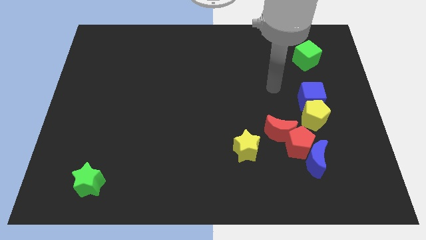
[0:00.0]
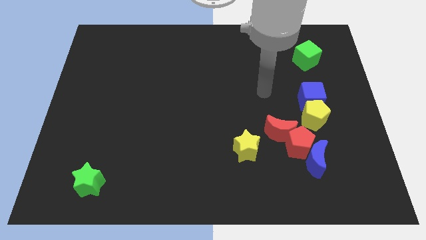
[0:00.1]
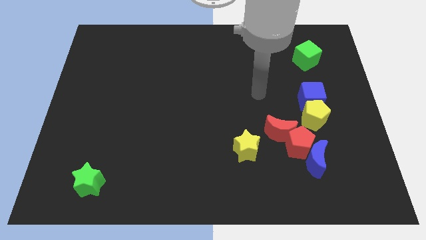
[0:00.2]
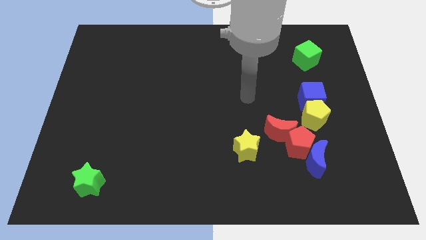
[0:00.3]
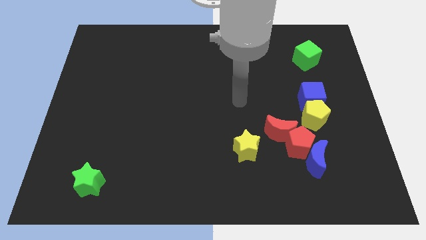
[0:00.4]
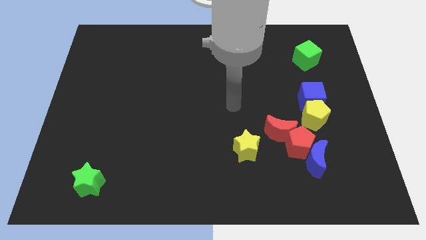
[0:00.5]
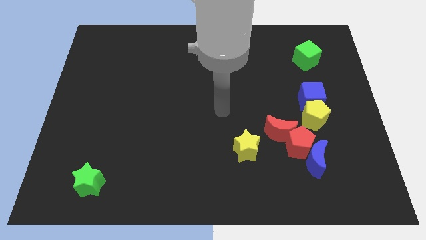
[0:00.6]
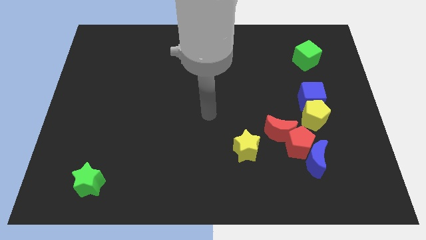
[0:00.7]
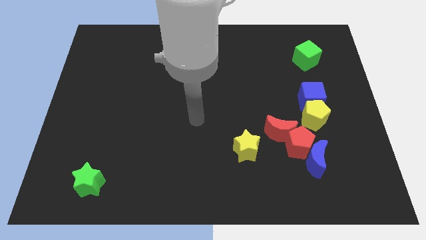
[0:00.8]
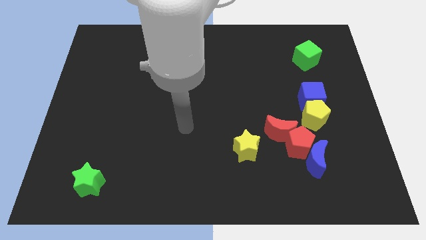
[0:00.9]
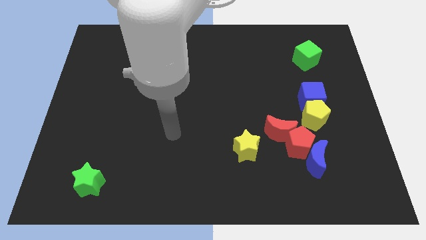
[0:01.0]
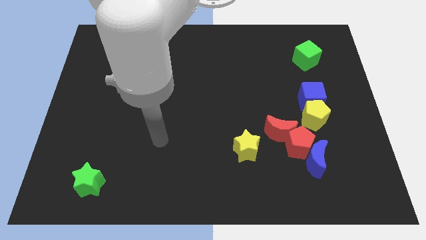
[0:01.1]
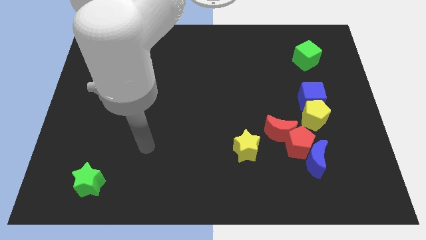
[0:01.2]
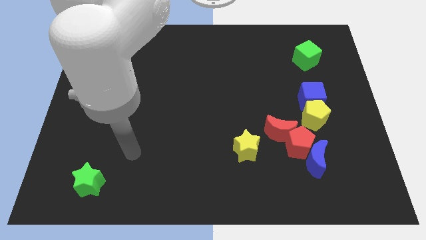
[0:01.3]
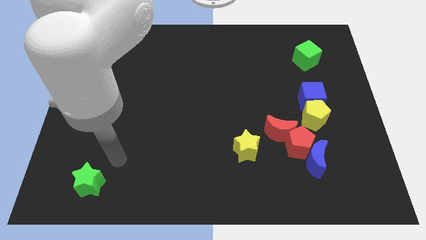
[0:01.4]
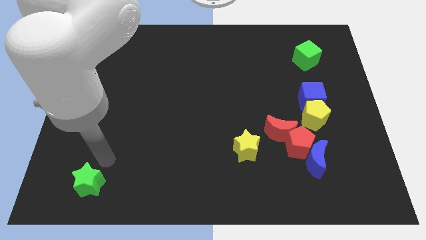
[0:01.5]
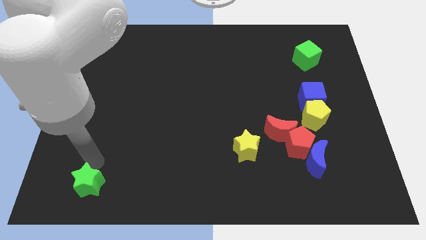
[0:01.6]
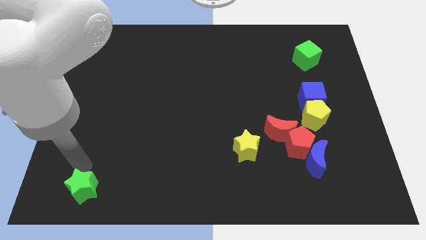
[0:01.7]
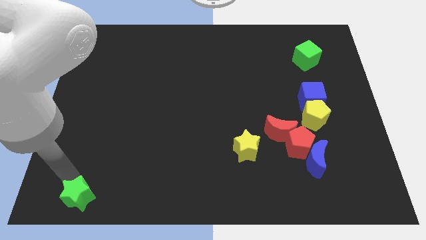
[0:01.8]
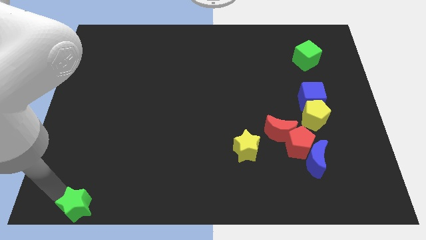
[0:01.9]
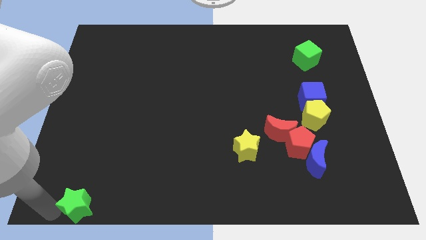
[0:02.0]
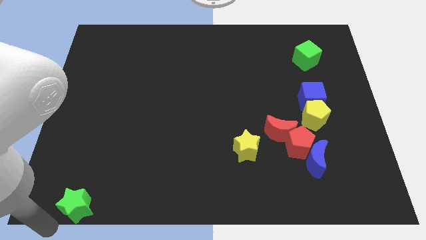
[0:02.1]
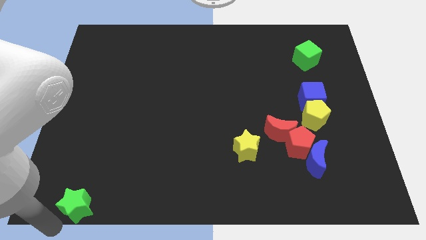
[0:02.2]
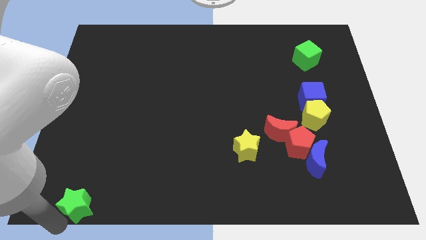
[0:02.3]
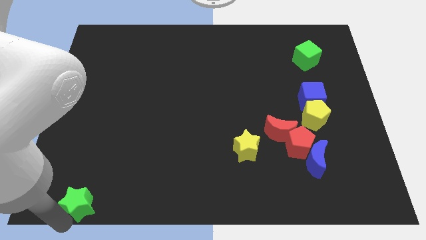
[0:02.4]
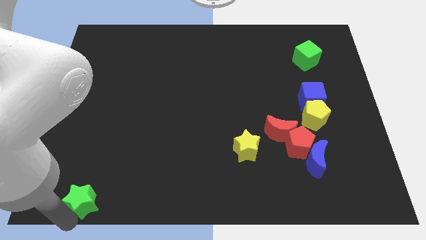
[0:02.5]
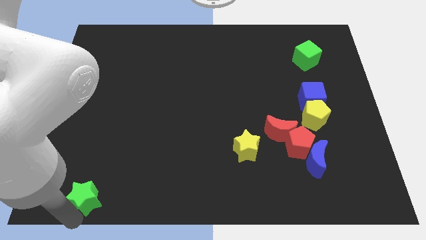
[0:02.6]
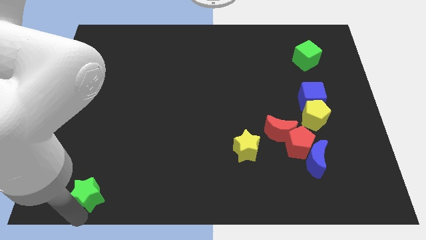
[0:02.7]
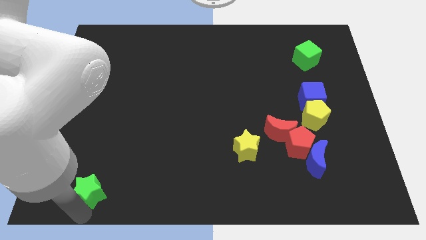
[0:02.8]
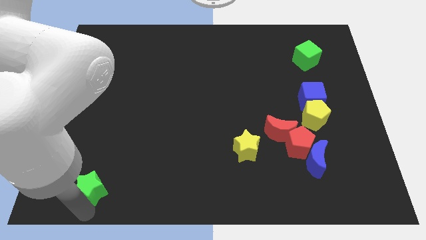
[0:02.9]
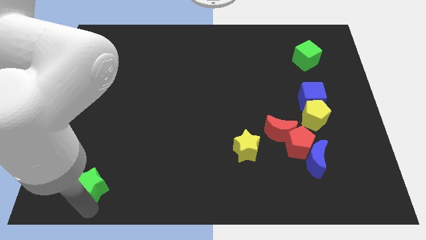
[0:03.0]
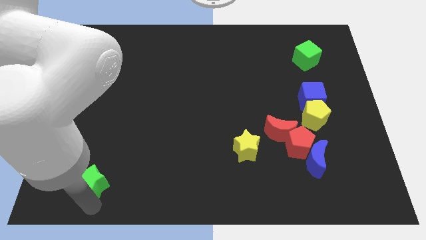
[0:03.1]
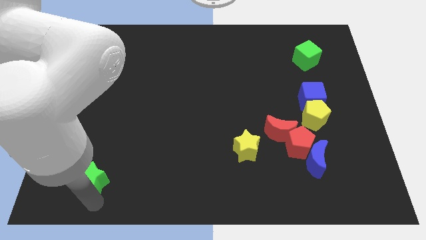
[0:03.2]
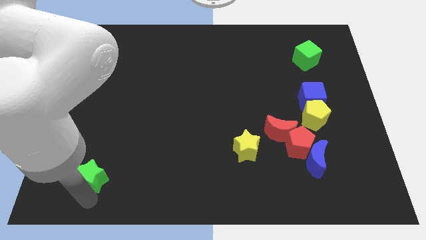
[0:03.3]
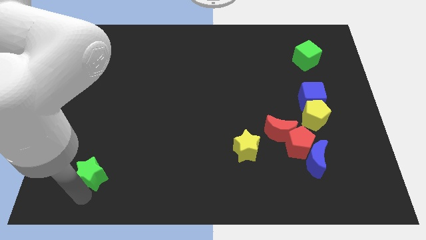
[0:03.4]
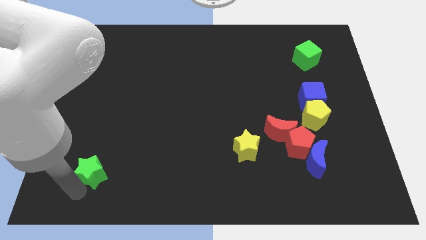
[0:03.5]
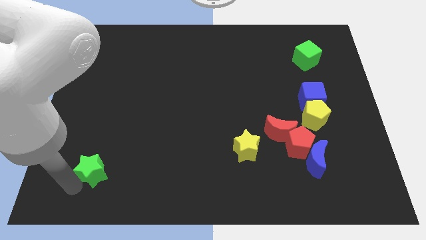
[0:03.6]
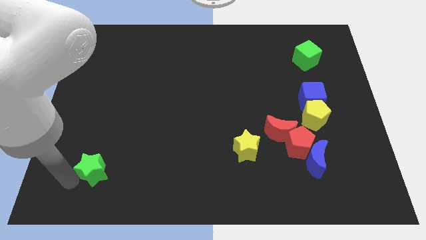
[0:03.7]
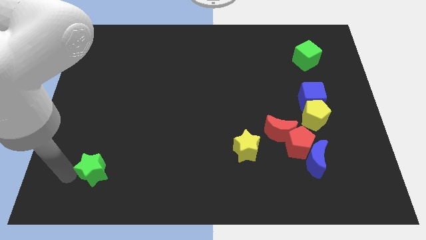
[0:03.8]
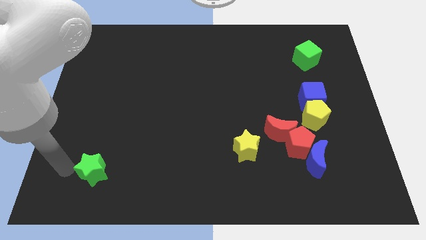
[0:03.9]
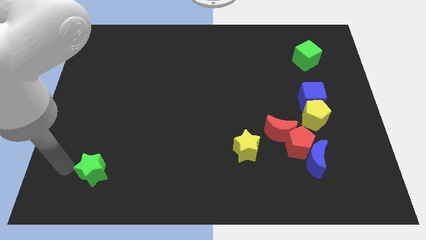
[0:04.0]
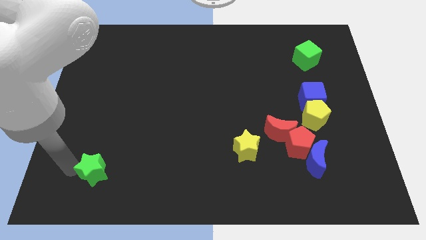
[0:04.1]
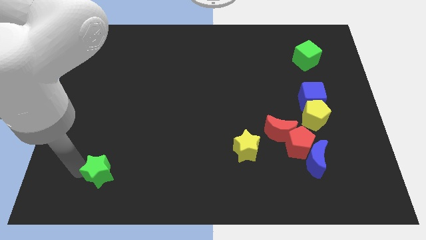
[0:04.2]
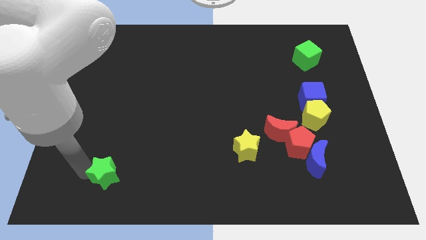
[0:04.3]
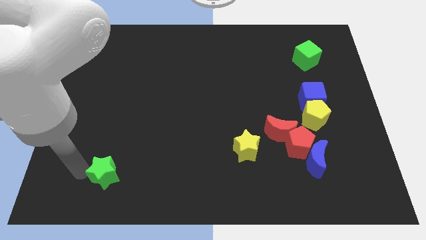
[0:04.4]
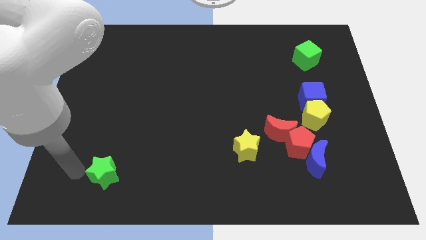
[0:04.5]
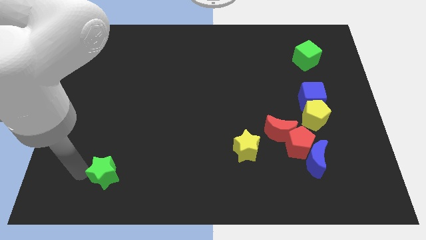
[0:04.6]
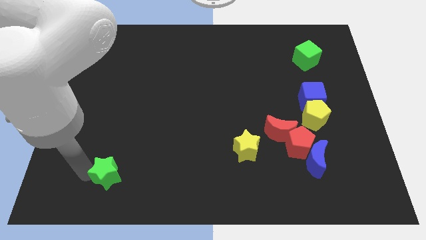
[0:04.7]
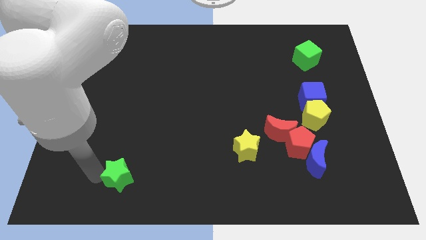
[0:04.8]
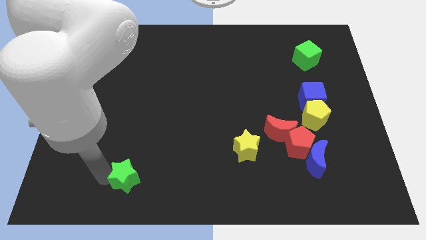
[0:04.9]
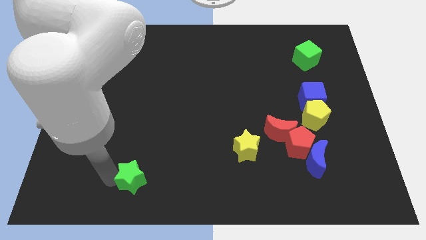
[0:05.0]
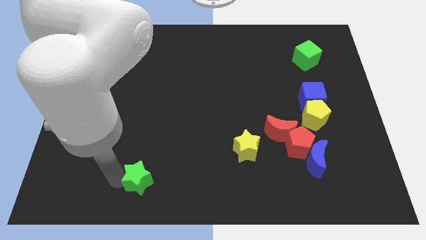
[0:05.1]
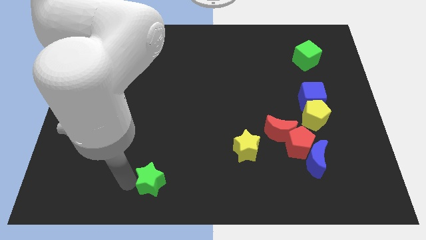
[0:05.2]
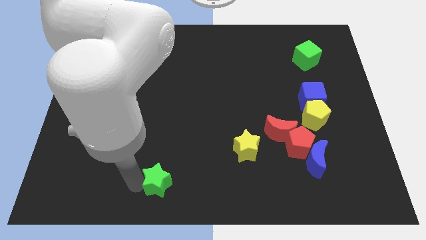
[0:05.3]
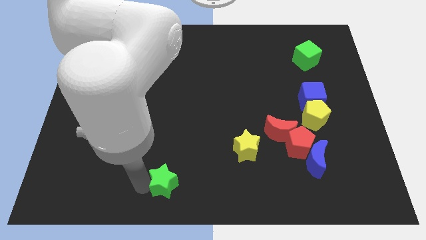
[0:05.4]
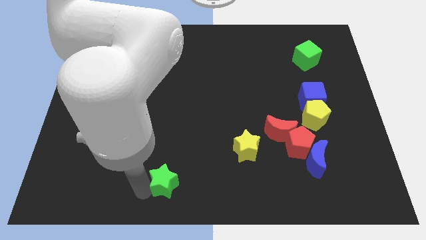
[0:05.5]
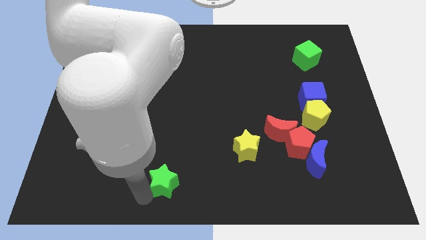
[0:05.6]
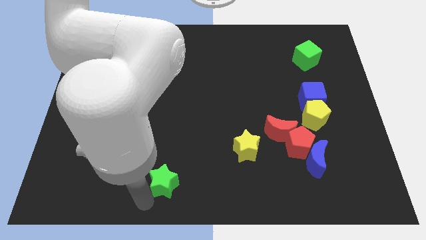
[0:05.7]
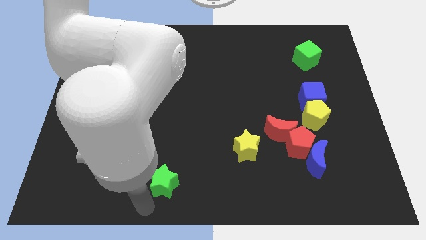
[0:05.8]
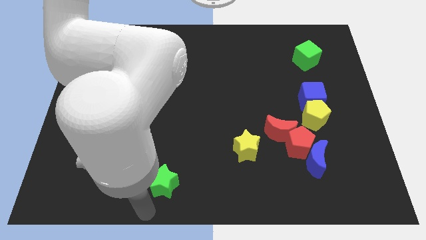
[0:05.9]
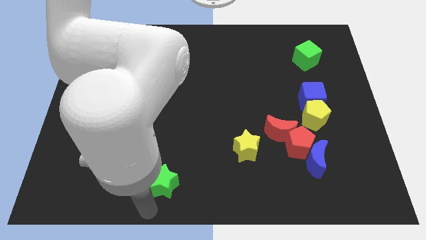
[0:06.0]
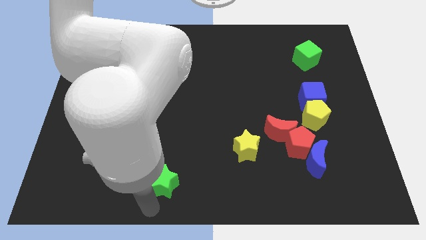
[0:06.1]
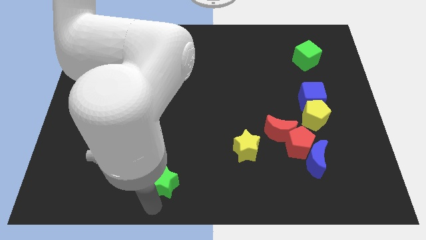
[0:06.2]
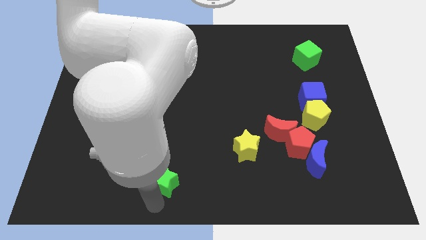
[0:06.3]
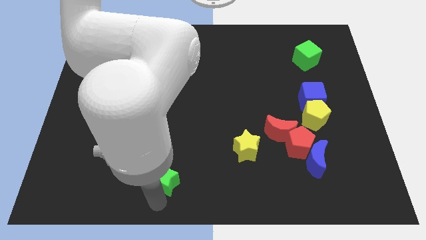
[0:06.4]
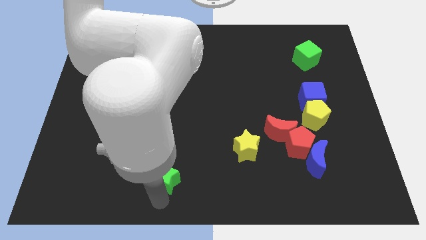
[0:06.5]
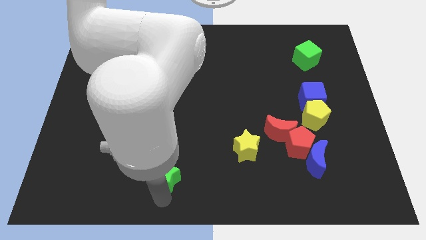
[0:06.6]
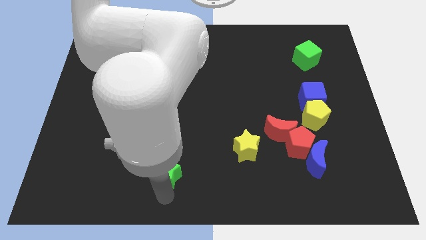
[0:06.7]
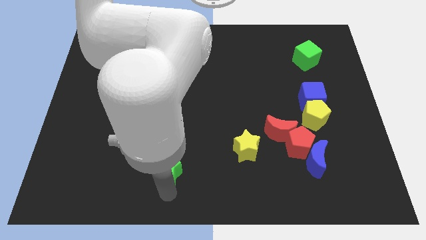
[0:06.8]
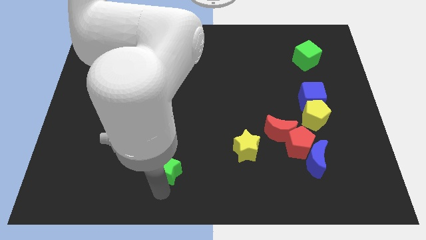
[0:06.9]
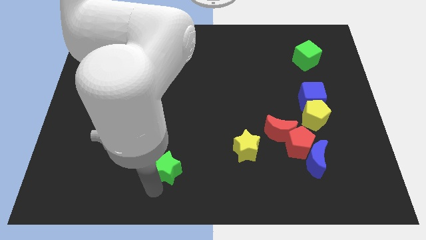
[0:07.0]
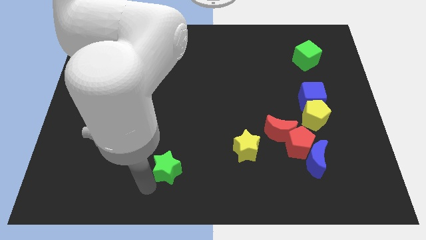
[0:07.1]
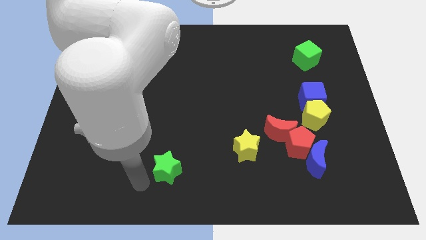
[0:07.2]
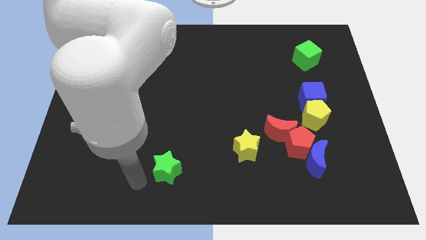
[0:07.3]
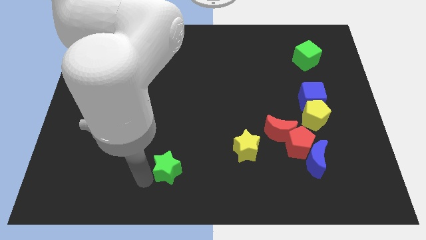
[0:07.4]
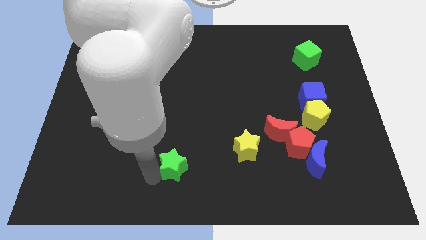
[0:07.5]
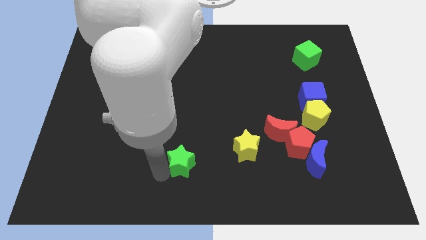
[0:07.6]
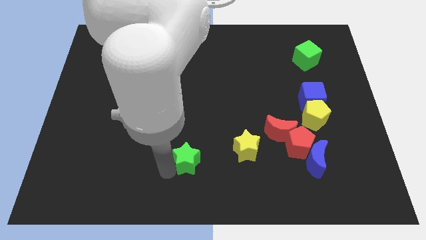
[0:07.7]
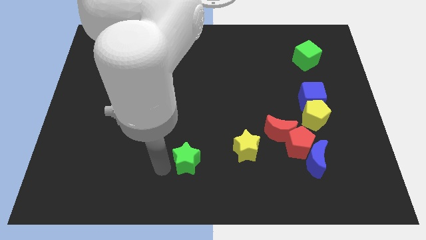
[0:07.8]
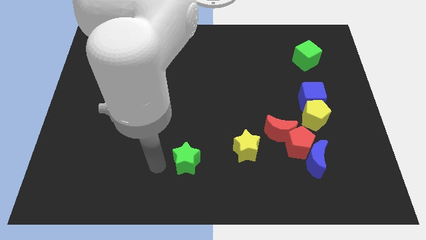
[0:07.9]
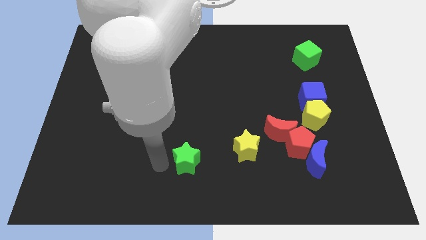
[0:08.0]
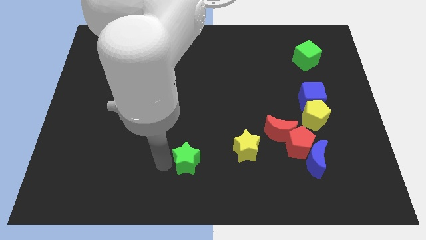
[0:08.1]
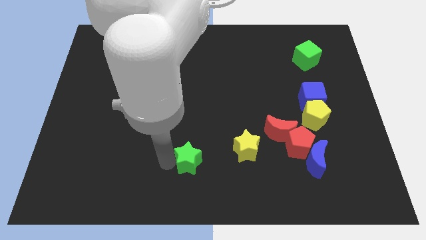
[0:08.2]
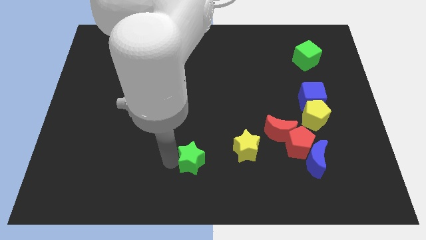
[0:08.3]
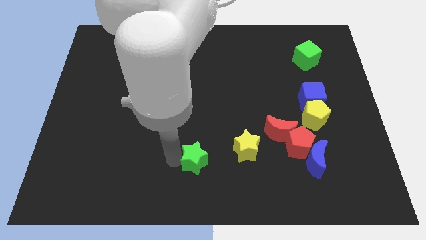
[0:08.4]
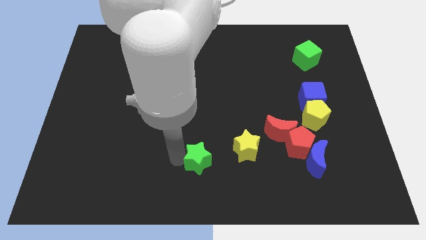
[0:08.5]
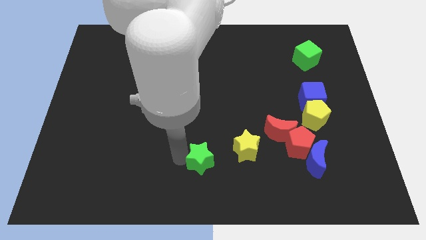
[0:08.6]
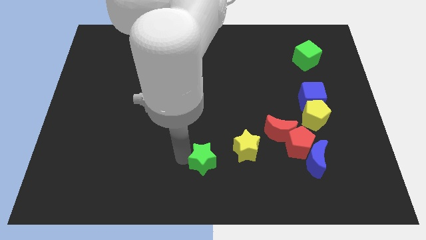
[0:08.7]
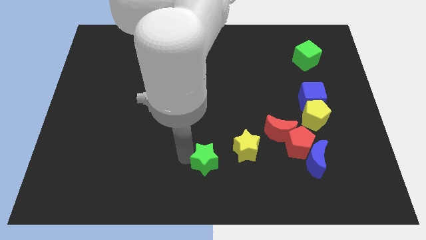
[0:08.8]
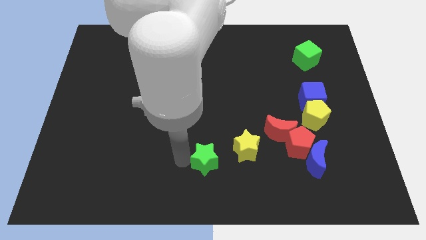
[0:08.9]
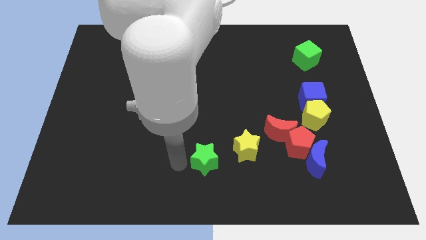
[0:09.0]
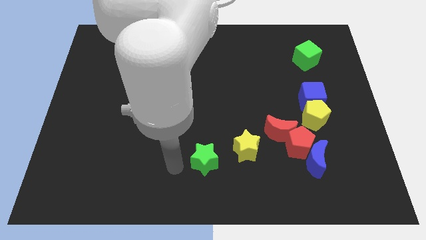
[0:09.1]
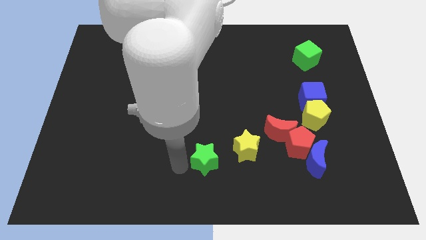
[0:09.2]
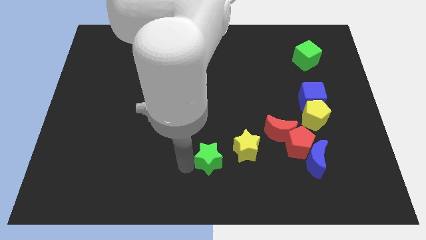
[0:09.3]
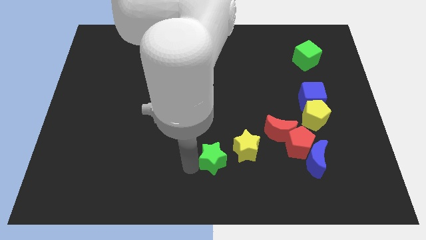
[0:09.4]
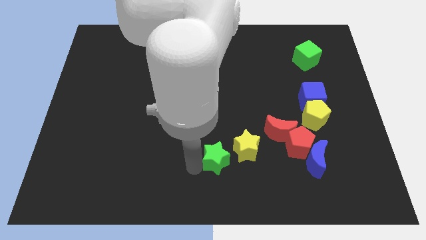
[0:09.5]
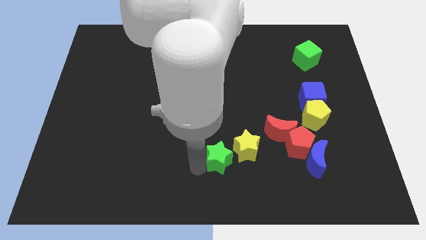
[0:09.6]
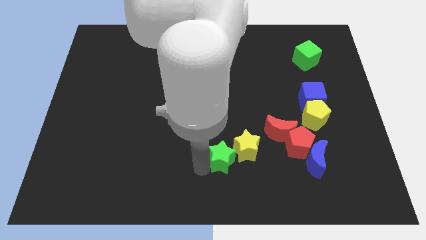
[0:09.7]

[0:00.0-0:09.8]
push the green star towards the yellow star
